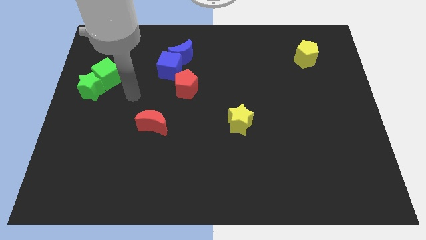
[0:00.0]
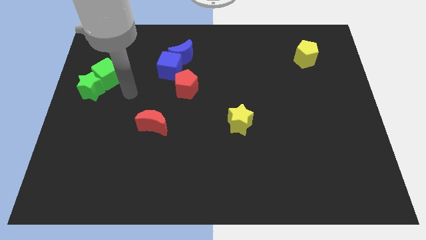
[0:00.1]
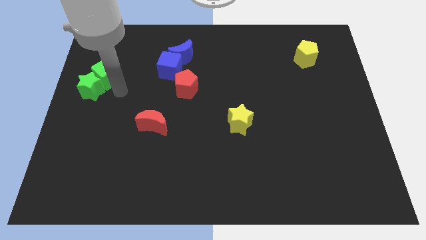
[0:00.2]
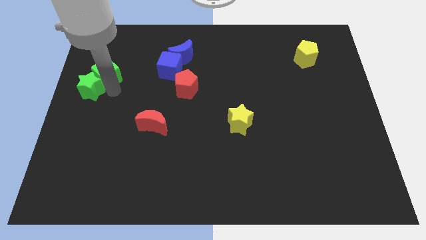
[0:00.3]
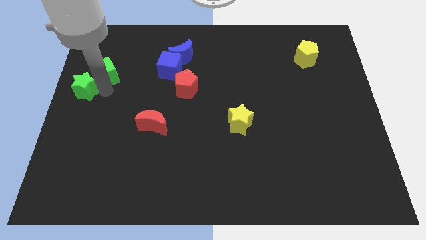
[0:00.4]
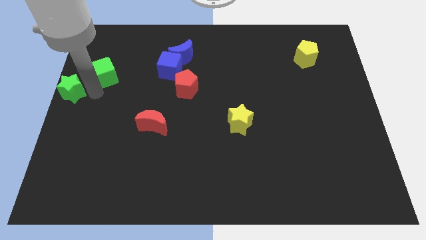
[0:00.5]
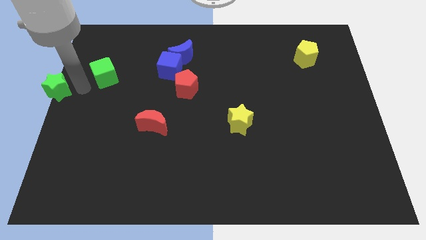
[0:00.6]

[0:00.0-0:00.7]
pull the green cube apart from the green star

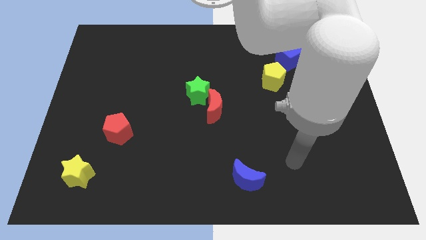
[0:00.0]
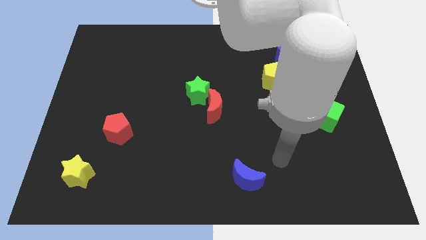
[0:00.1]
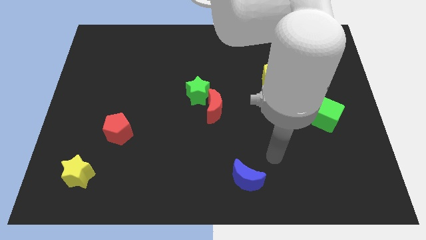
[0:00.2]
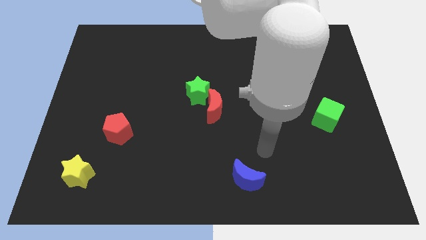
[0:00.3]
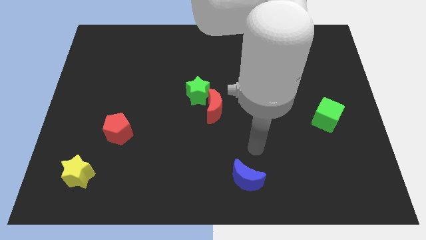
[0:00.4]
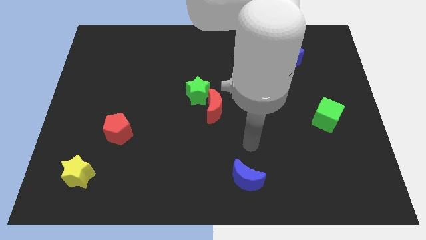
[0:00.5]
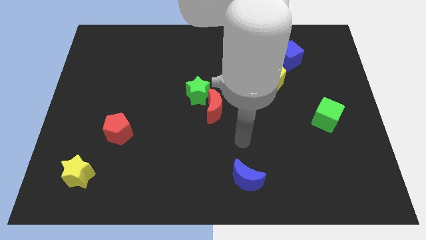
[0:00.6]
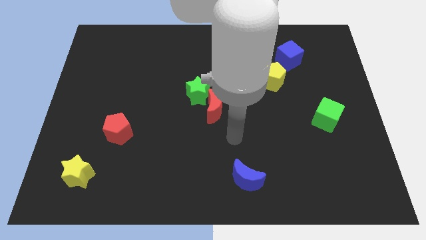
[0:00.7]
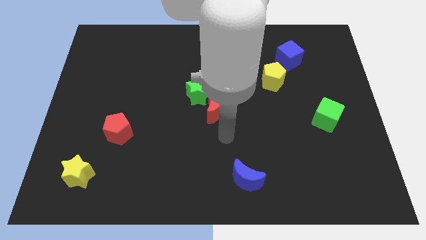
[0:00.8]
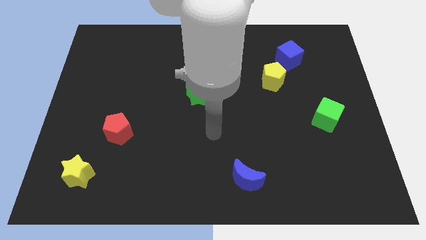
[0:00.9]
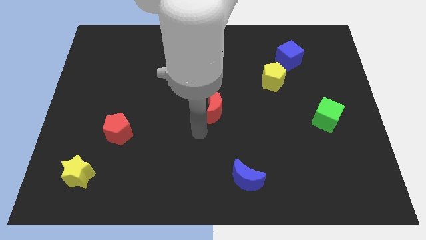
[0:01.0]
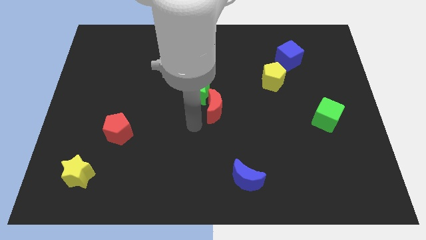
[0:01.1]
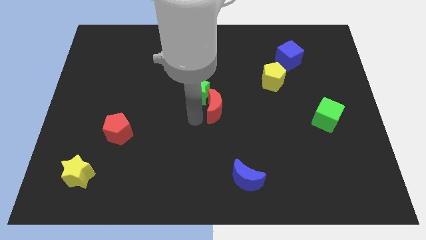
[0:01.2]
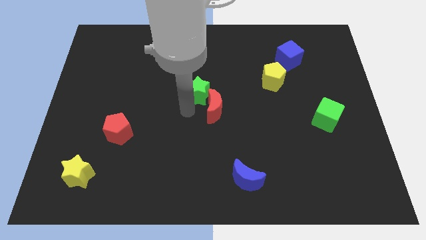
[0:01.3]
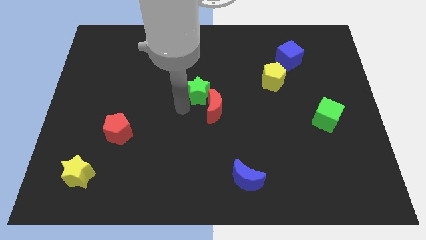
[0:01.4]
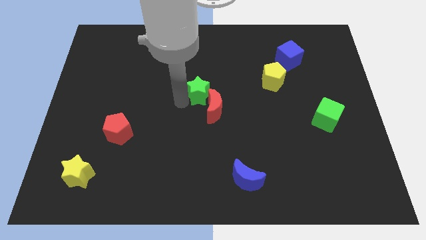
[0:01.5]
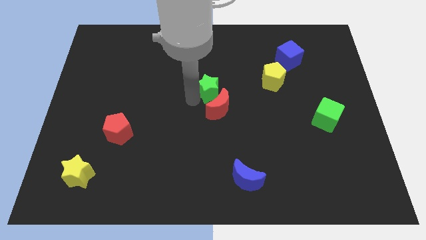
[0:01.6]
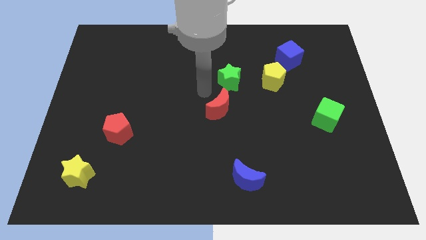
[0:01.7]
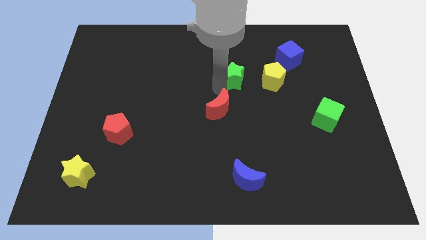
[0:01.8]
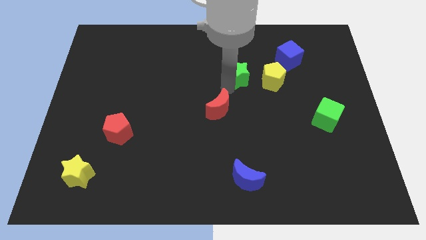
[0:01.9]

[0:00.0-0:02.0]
pull the red moon apart from the green star

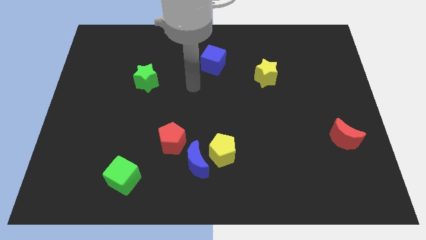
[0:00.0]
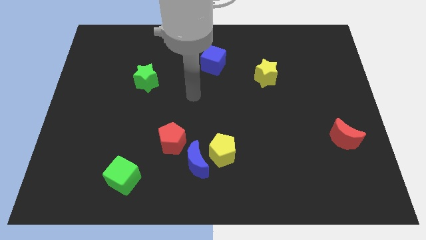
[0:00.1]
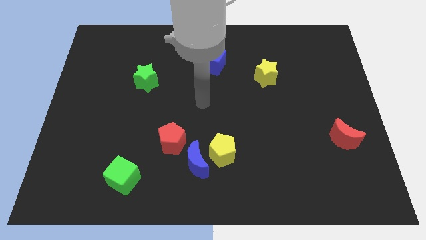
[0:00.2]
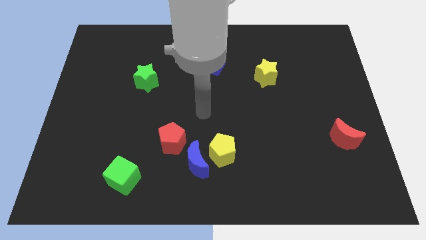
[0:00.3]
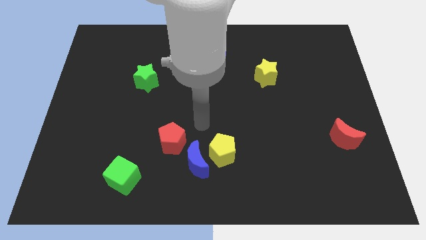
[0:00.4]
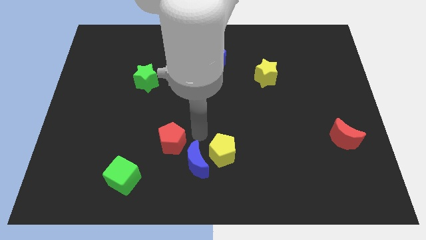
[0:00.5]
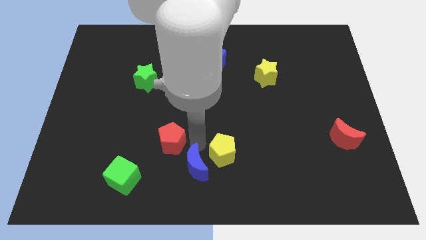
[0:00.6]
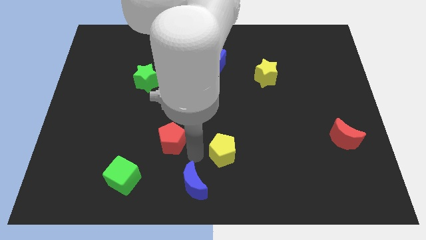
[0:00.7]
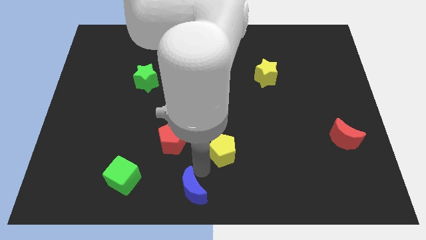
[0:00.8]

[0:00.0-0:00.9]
pull the yellow pentagon apart from the blue moon

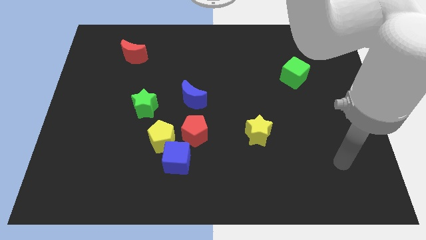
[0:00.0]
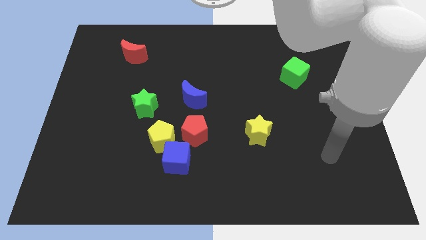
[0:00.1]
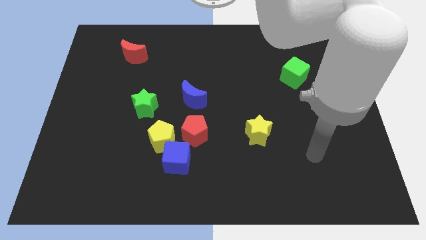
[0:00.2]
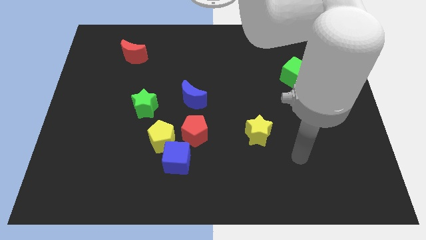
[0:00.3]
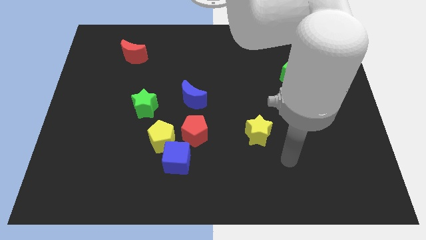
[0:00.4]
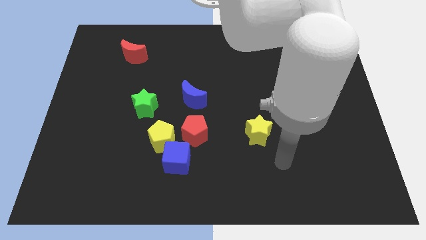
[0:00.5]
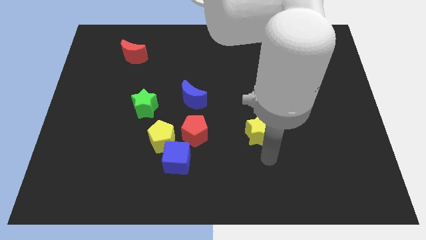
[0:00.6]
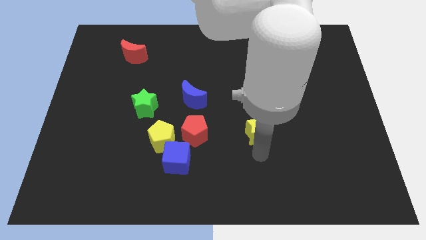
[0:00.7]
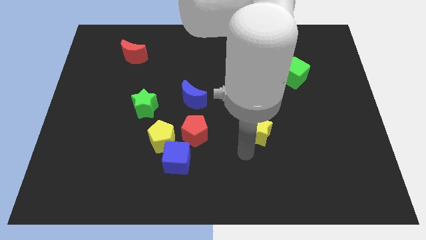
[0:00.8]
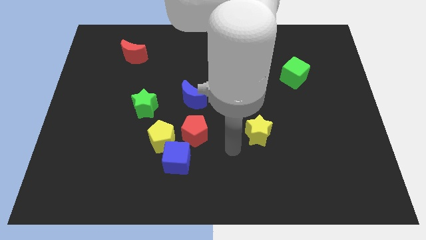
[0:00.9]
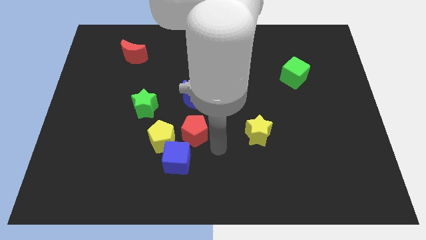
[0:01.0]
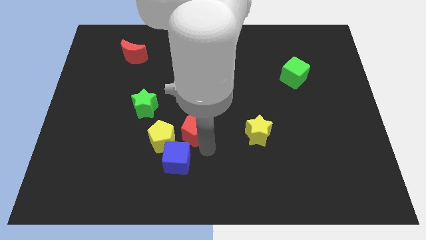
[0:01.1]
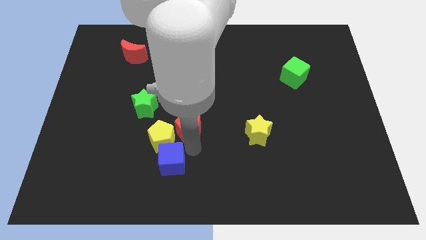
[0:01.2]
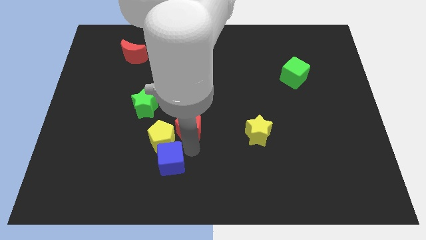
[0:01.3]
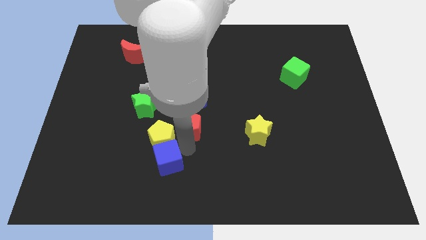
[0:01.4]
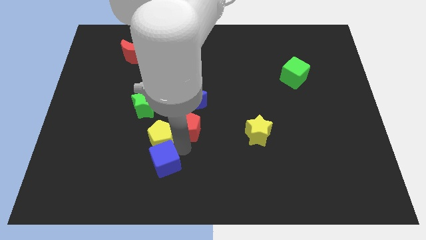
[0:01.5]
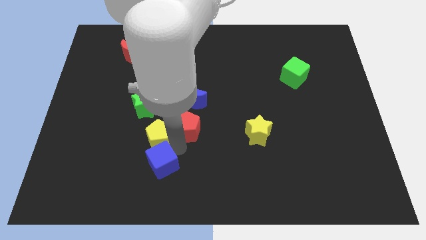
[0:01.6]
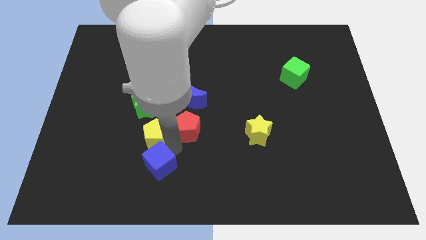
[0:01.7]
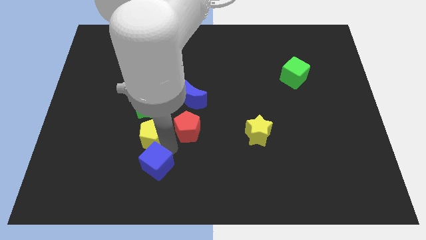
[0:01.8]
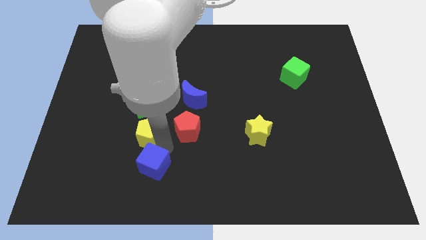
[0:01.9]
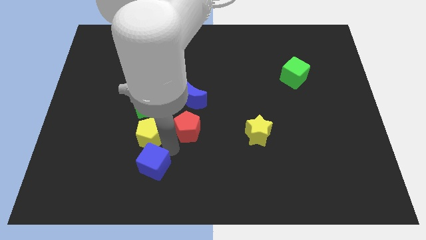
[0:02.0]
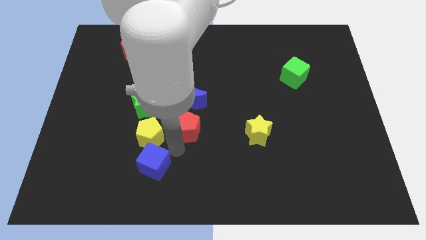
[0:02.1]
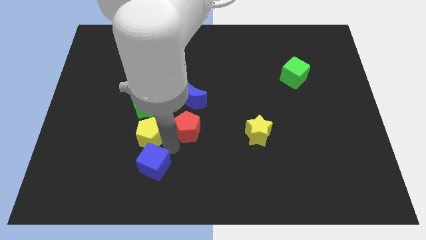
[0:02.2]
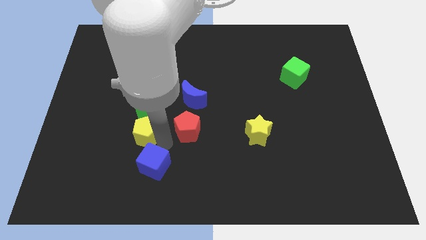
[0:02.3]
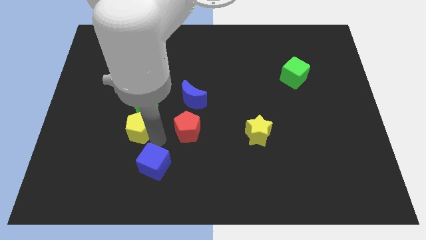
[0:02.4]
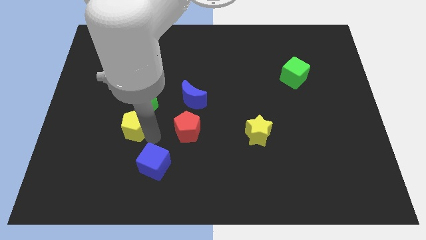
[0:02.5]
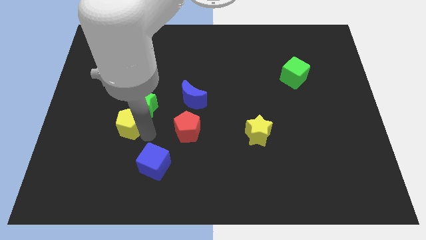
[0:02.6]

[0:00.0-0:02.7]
move the yellow pentagon away from the blue cube and red pentagon

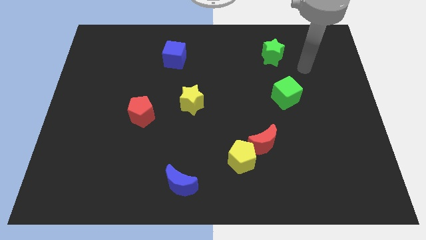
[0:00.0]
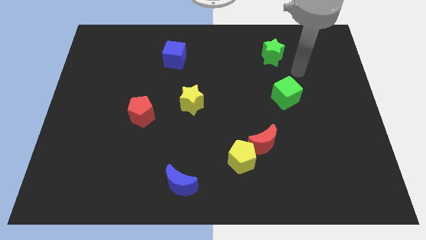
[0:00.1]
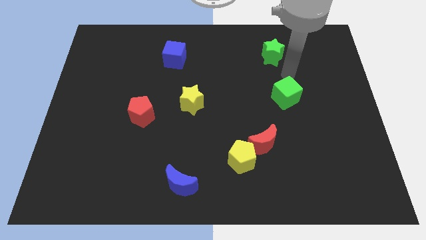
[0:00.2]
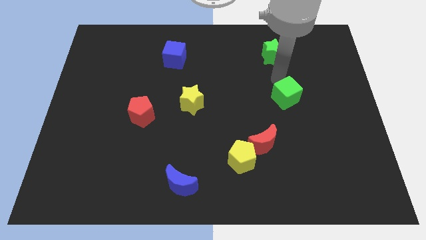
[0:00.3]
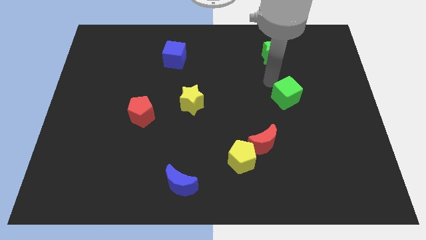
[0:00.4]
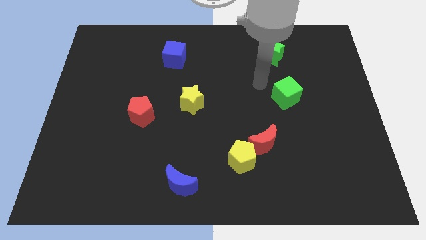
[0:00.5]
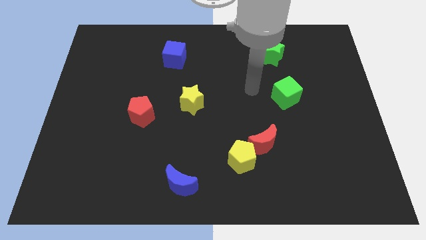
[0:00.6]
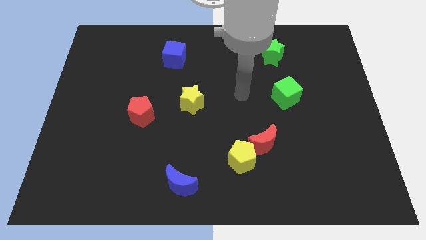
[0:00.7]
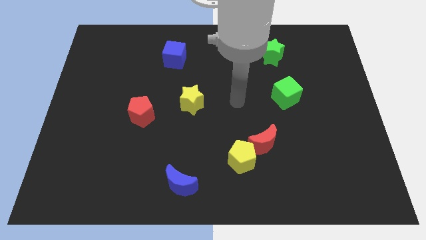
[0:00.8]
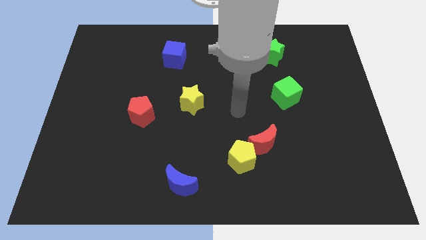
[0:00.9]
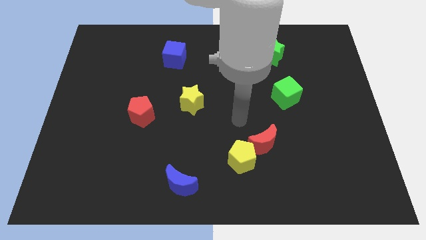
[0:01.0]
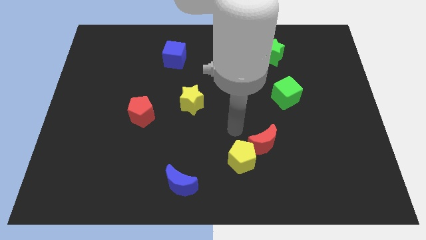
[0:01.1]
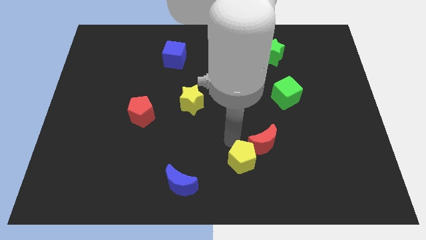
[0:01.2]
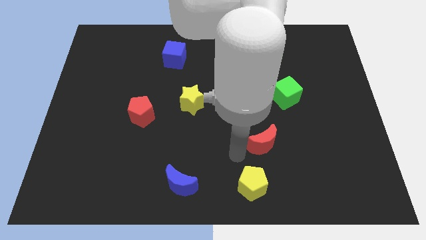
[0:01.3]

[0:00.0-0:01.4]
move the red moon away from the yellow pentagon

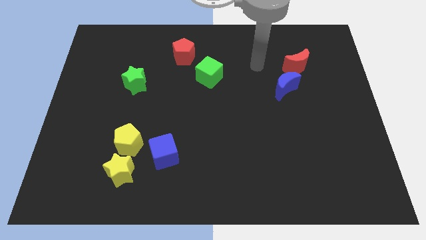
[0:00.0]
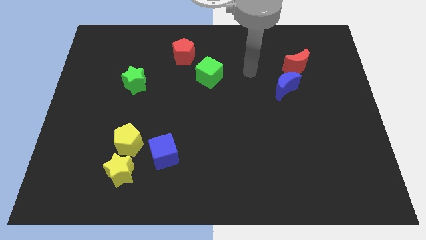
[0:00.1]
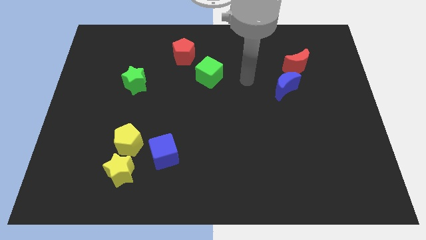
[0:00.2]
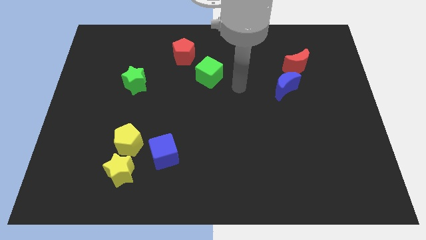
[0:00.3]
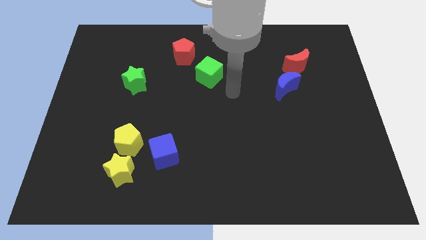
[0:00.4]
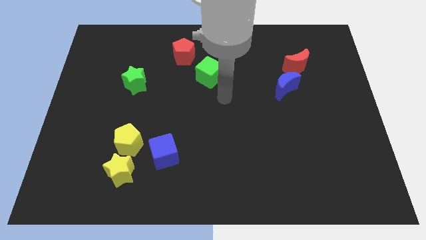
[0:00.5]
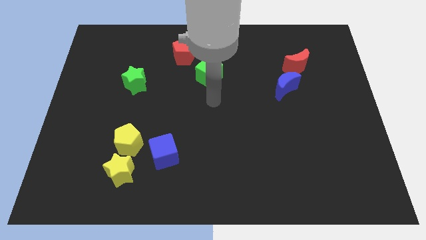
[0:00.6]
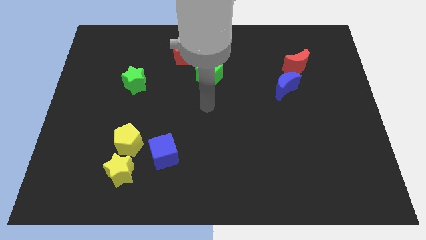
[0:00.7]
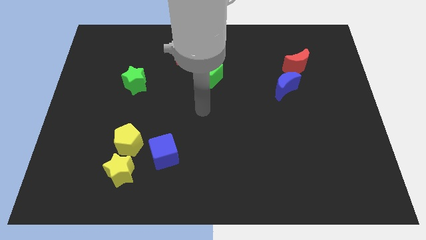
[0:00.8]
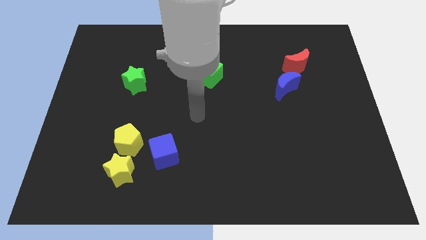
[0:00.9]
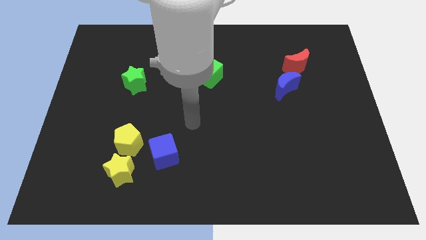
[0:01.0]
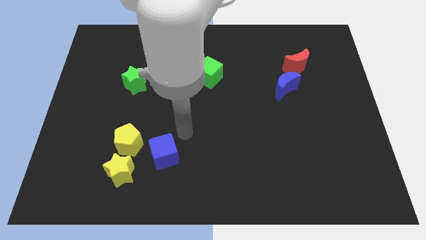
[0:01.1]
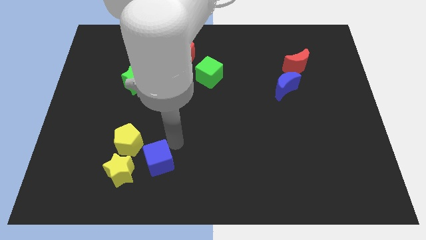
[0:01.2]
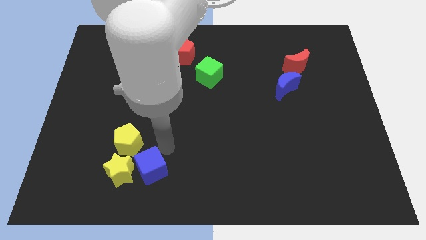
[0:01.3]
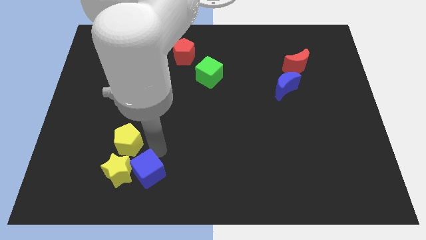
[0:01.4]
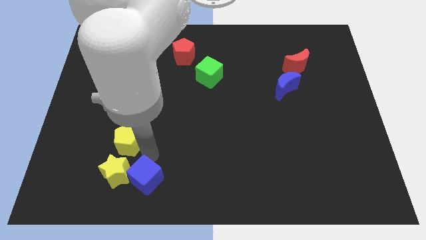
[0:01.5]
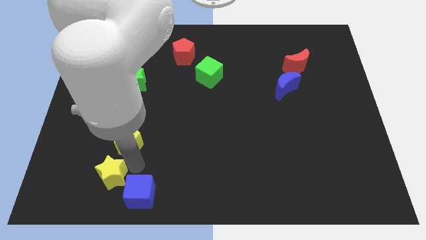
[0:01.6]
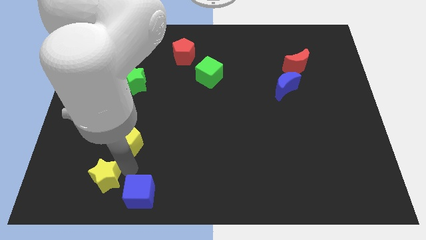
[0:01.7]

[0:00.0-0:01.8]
separate the yellow pentagon from the yellow star and blue cube
